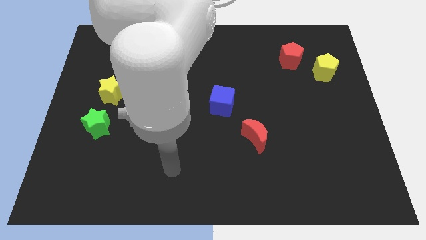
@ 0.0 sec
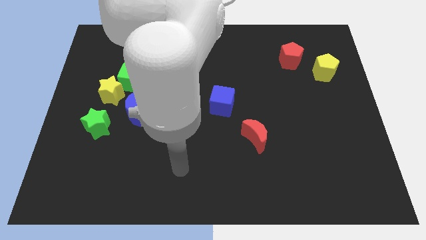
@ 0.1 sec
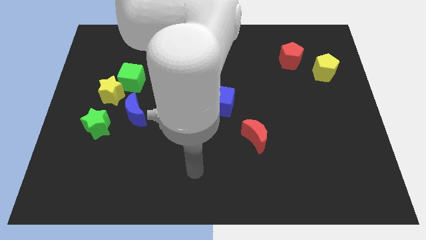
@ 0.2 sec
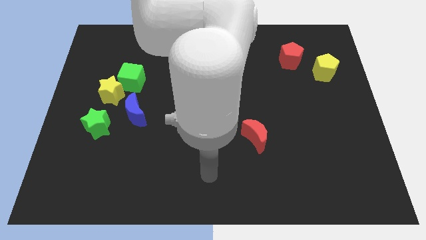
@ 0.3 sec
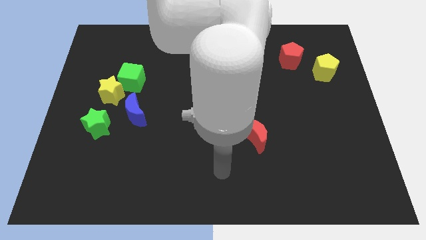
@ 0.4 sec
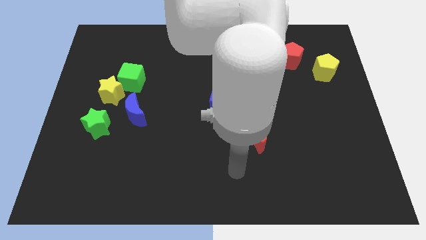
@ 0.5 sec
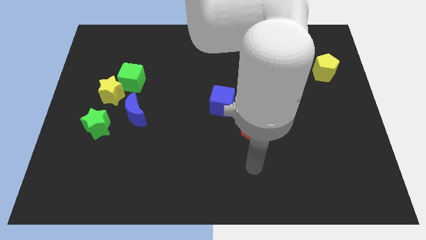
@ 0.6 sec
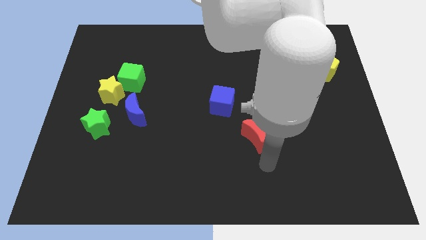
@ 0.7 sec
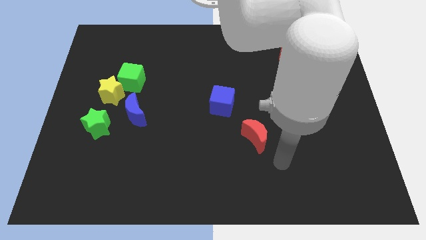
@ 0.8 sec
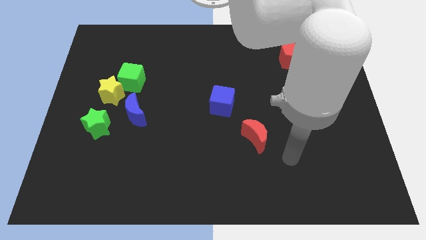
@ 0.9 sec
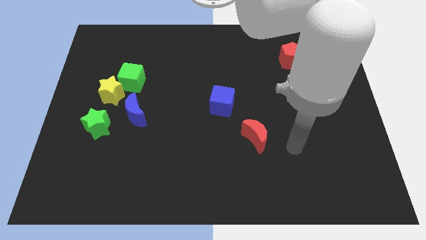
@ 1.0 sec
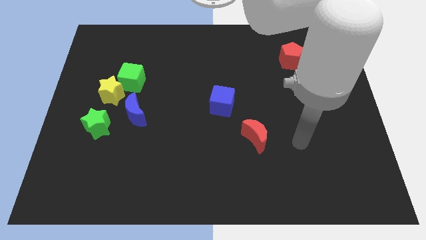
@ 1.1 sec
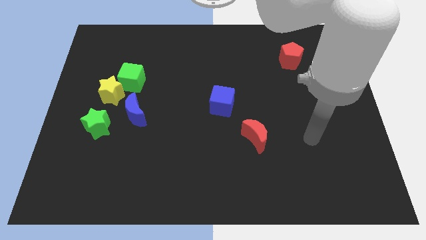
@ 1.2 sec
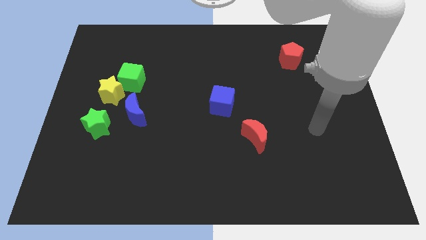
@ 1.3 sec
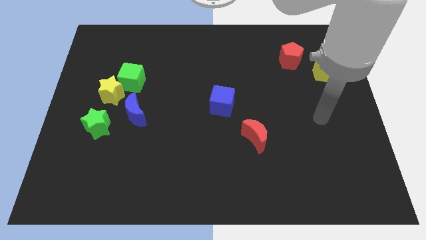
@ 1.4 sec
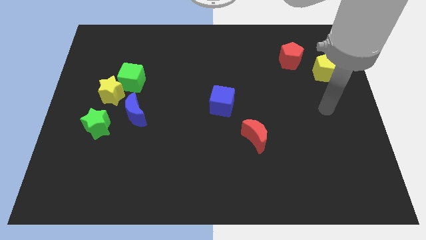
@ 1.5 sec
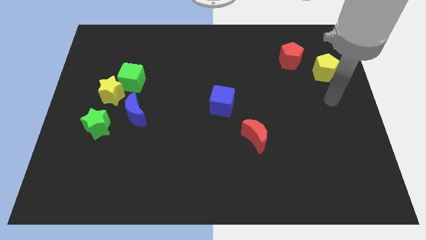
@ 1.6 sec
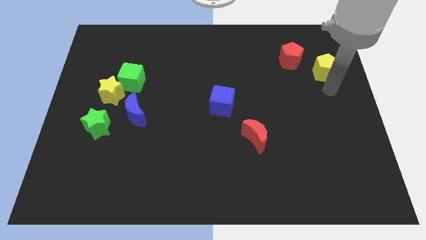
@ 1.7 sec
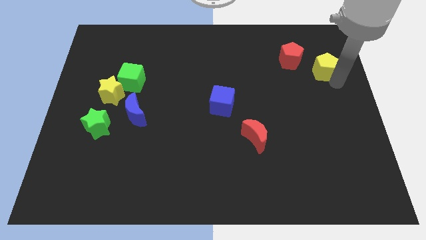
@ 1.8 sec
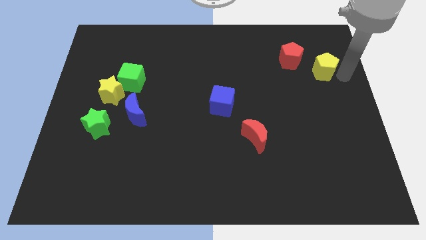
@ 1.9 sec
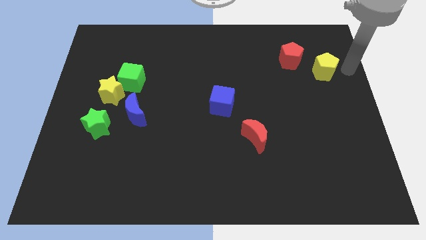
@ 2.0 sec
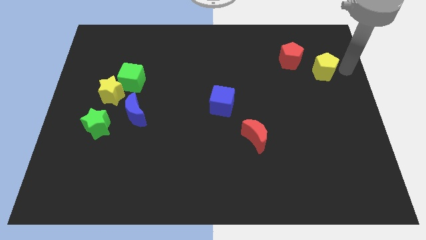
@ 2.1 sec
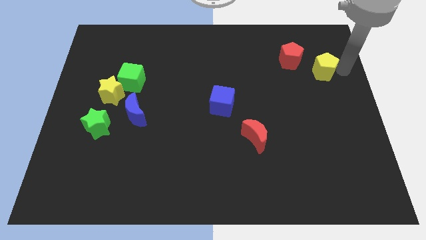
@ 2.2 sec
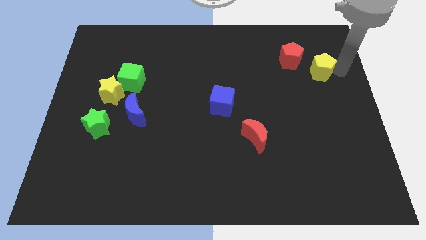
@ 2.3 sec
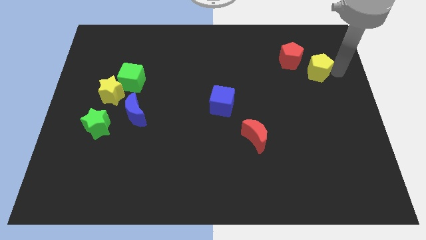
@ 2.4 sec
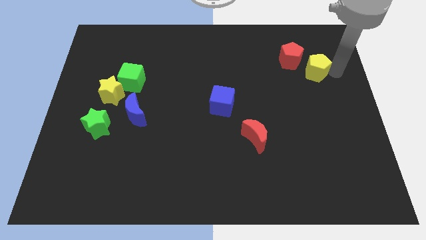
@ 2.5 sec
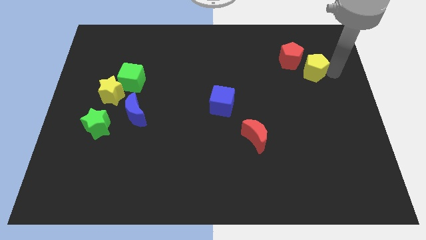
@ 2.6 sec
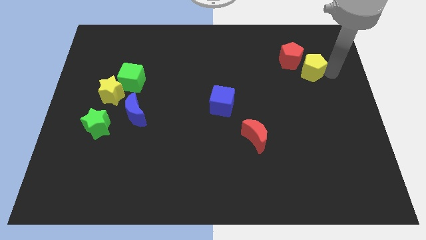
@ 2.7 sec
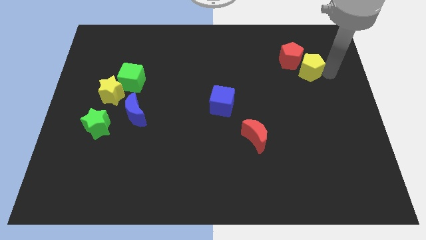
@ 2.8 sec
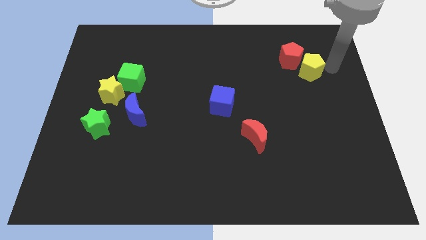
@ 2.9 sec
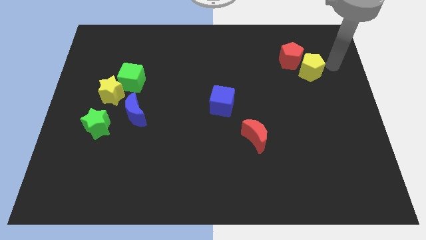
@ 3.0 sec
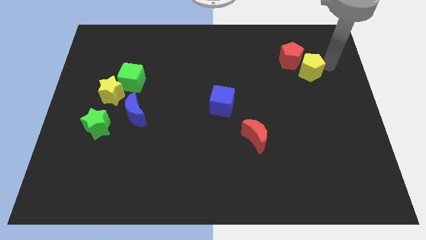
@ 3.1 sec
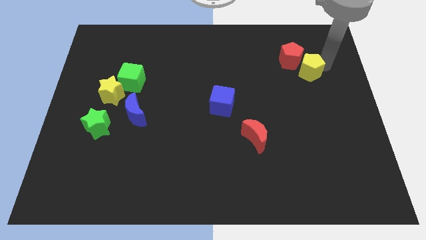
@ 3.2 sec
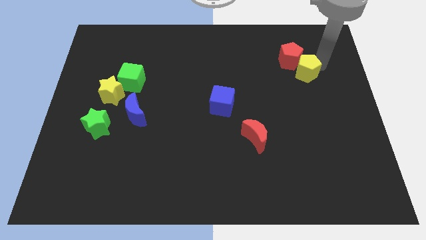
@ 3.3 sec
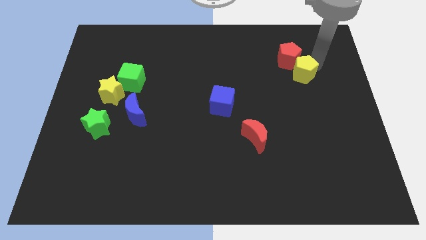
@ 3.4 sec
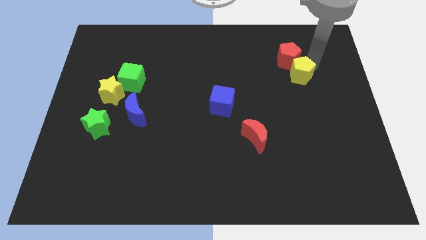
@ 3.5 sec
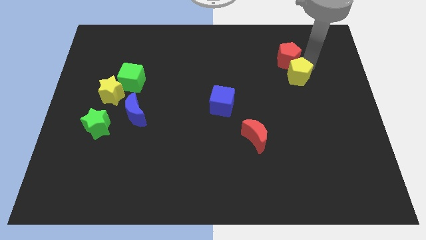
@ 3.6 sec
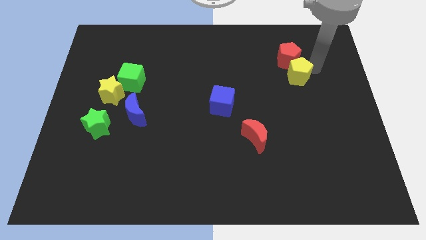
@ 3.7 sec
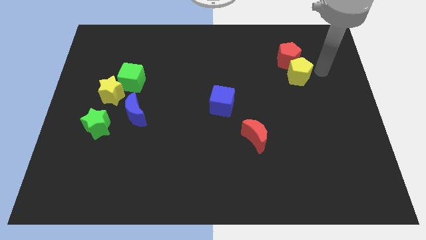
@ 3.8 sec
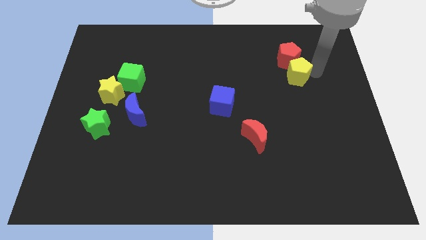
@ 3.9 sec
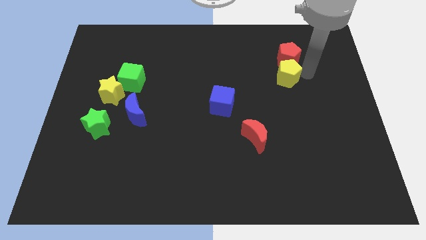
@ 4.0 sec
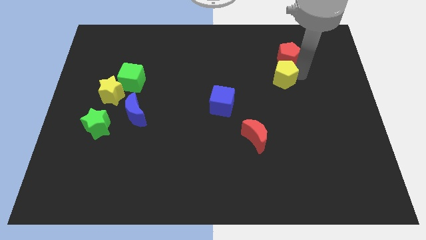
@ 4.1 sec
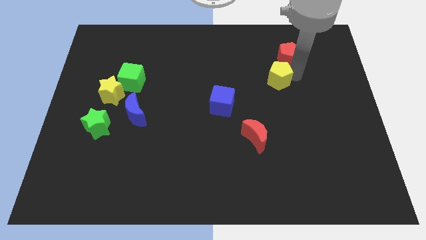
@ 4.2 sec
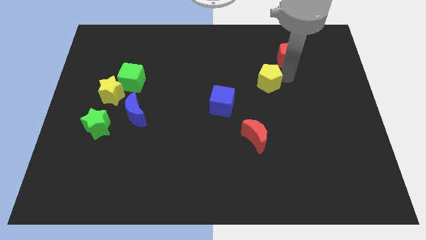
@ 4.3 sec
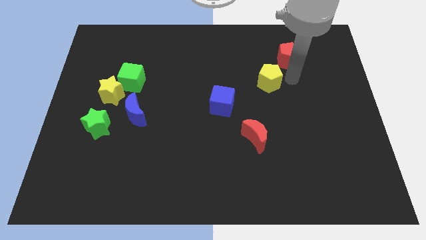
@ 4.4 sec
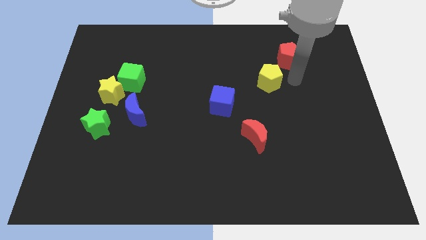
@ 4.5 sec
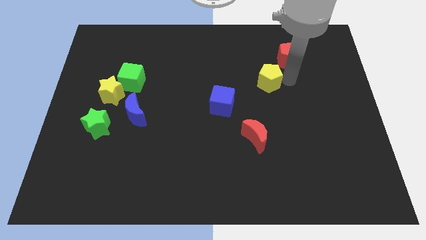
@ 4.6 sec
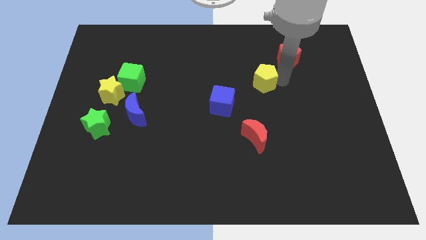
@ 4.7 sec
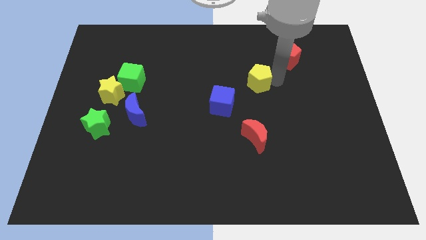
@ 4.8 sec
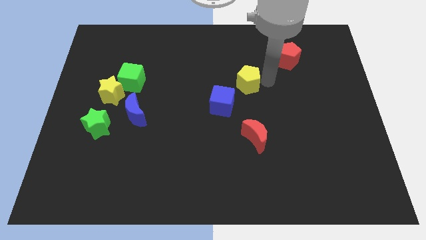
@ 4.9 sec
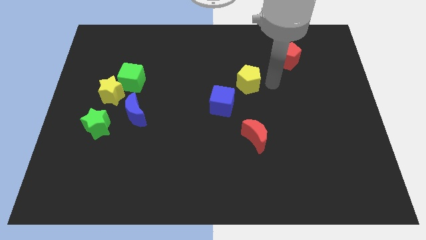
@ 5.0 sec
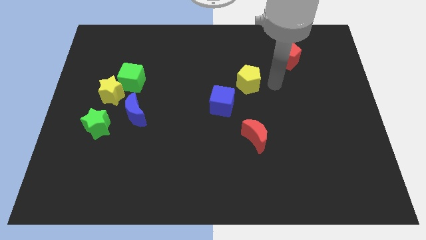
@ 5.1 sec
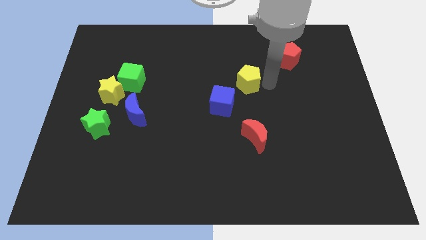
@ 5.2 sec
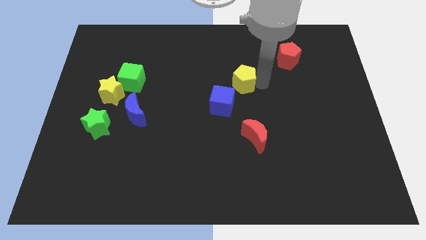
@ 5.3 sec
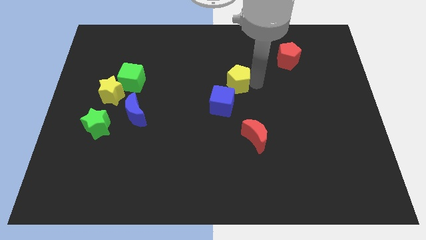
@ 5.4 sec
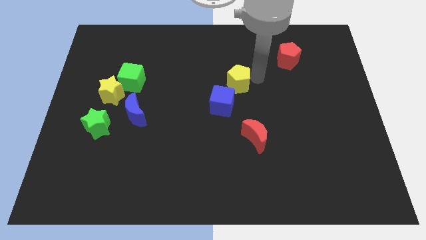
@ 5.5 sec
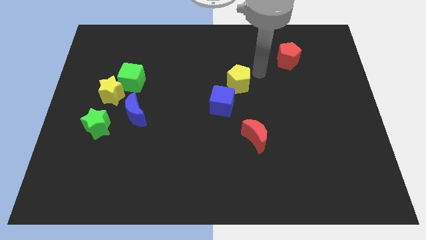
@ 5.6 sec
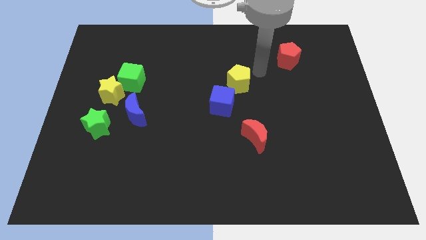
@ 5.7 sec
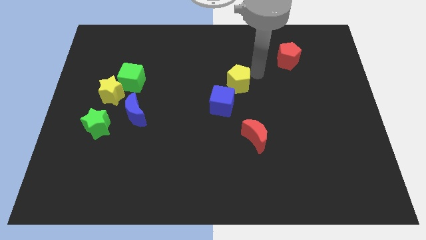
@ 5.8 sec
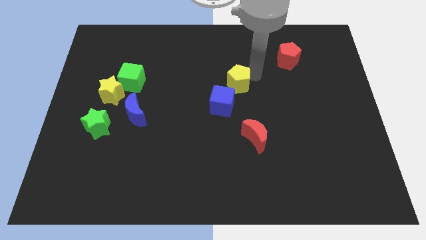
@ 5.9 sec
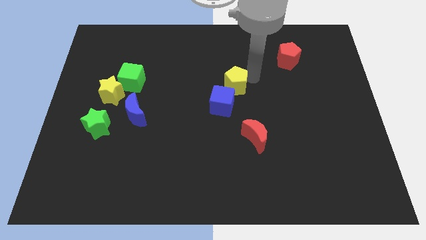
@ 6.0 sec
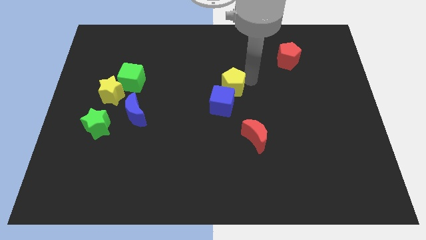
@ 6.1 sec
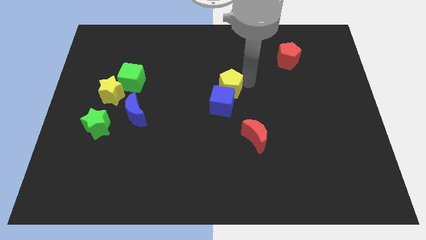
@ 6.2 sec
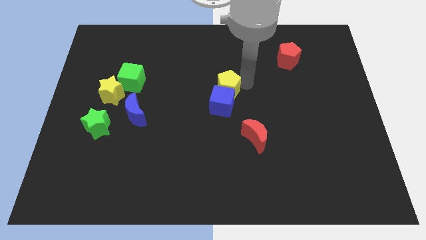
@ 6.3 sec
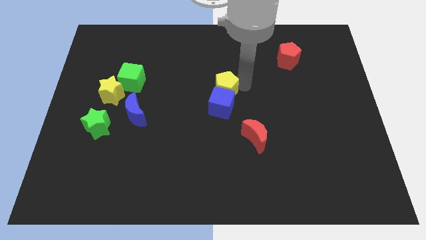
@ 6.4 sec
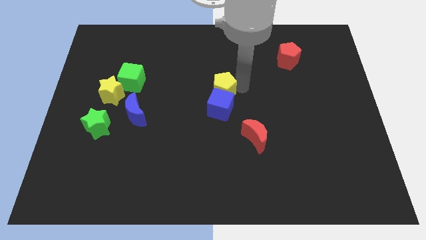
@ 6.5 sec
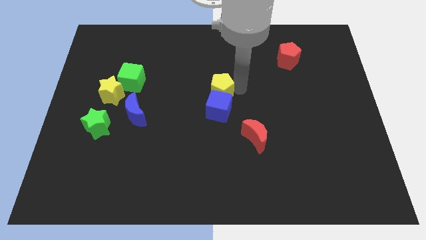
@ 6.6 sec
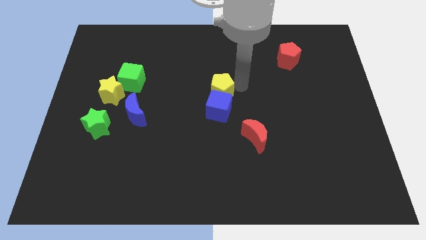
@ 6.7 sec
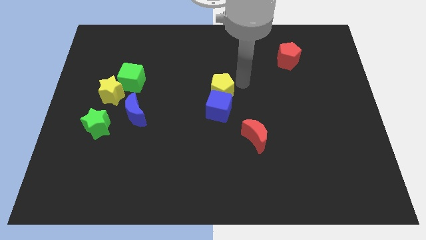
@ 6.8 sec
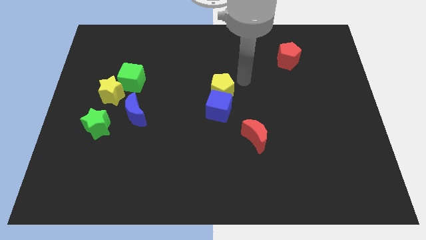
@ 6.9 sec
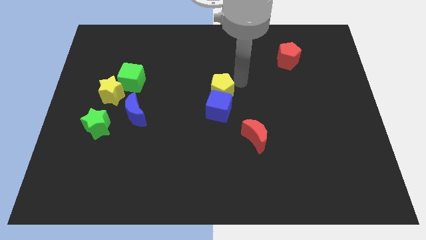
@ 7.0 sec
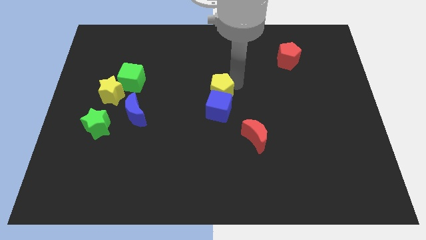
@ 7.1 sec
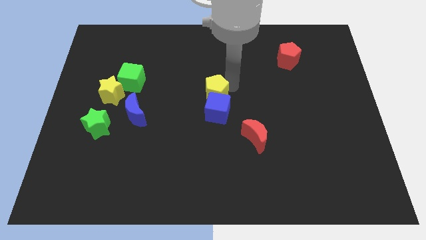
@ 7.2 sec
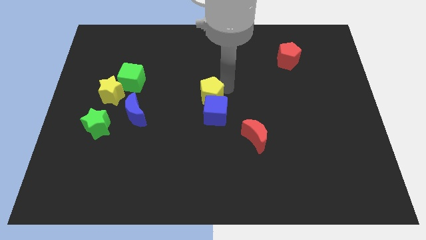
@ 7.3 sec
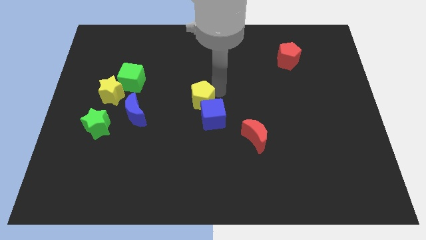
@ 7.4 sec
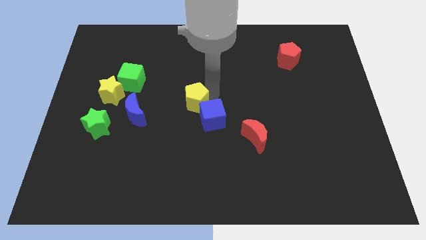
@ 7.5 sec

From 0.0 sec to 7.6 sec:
put the yellow pentagon right of the blue moon

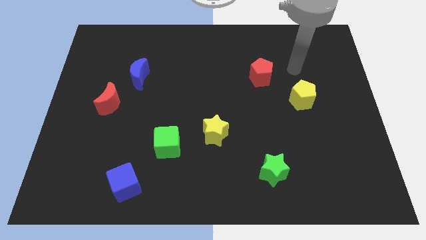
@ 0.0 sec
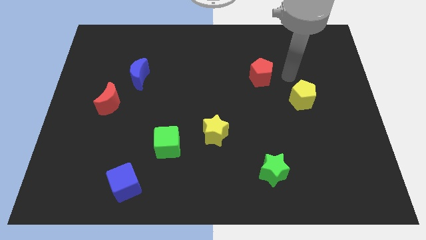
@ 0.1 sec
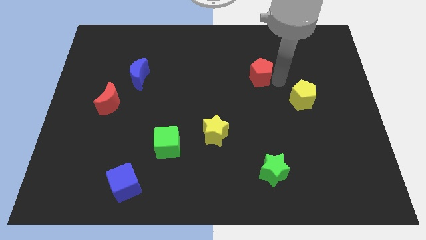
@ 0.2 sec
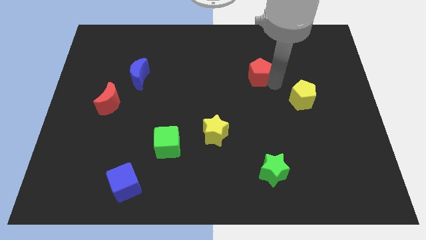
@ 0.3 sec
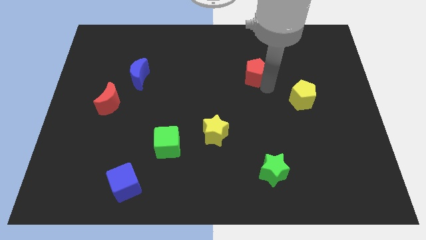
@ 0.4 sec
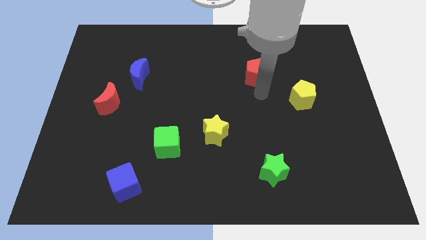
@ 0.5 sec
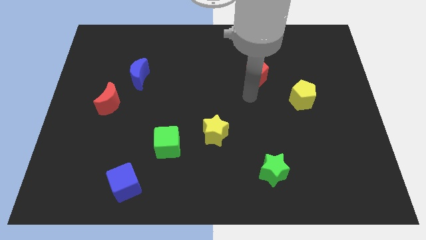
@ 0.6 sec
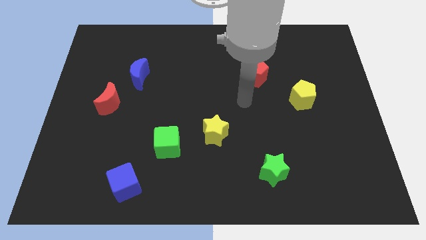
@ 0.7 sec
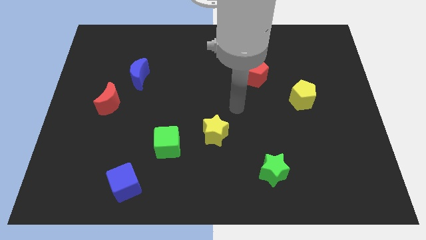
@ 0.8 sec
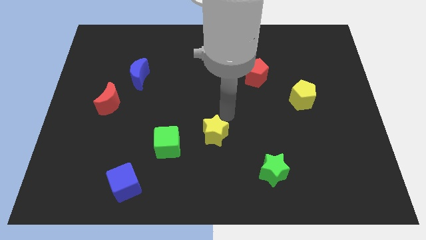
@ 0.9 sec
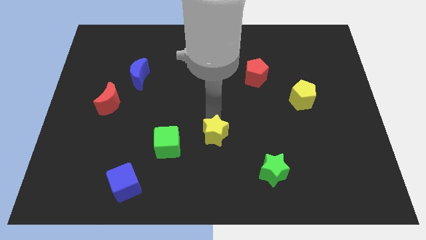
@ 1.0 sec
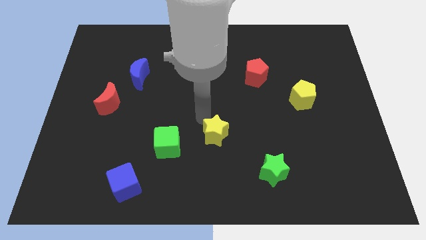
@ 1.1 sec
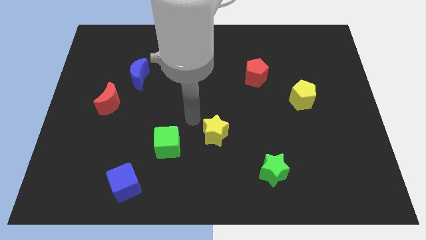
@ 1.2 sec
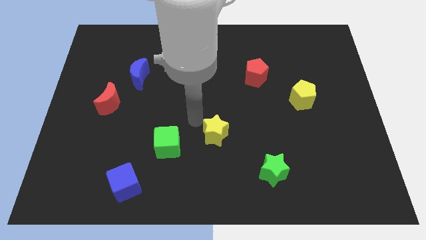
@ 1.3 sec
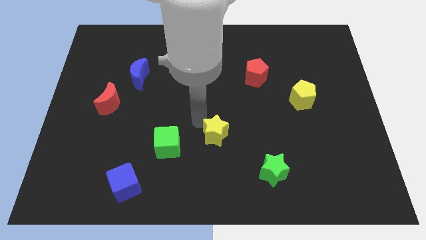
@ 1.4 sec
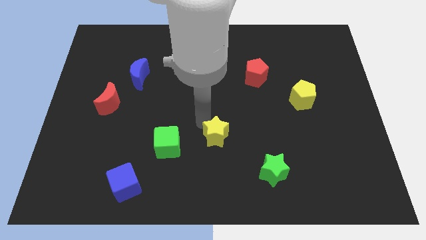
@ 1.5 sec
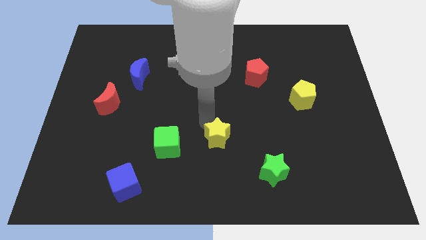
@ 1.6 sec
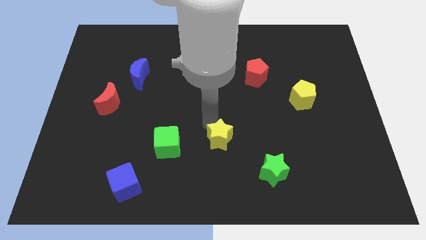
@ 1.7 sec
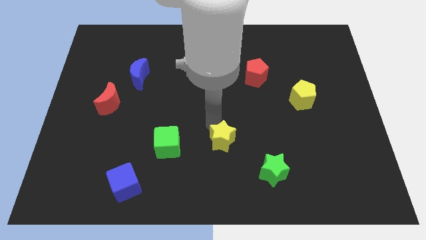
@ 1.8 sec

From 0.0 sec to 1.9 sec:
move the yellow star diagonally up and to the left of the green star
